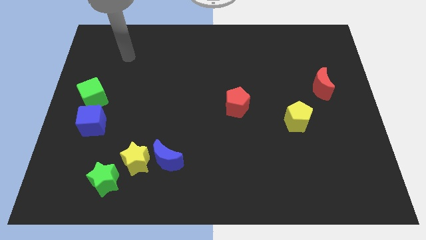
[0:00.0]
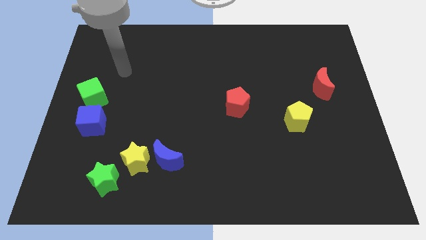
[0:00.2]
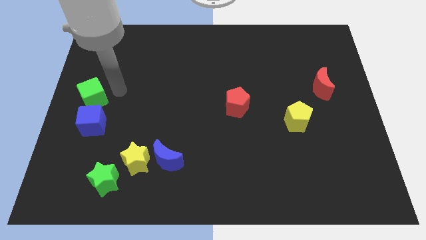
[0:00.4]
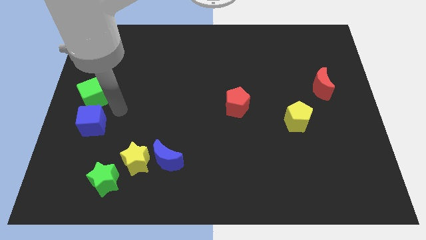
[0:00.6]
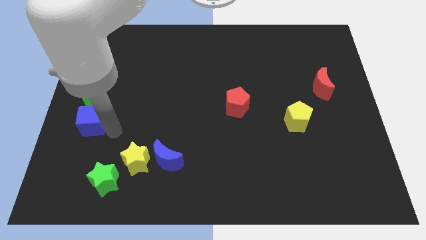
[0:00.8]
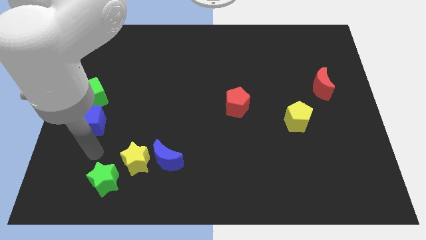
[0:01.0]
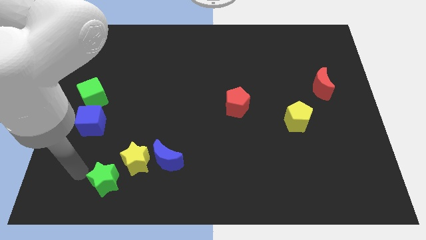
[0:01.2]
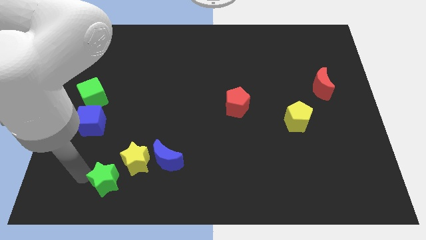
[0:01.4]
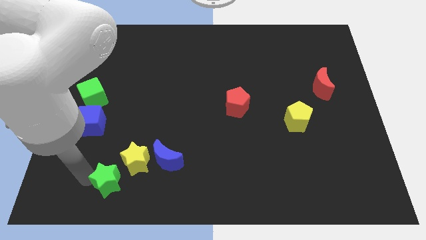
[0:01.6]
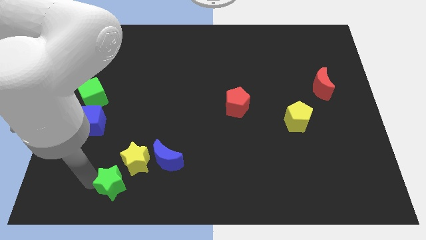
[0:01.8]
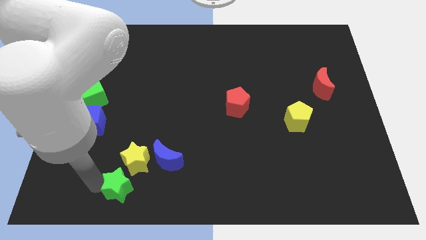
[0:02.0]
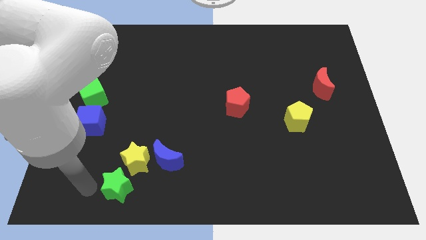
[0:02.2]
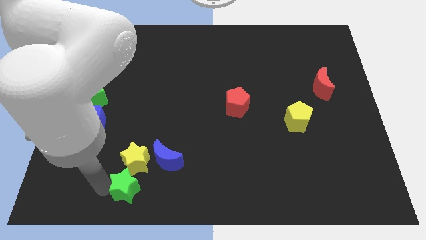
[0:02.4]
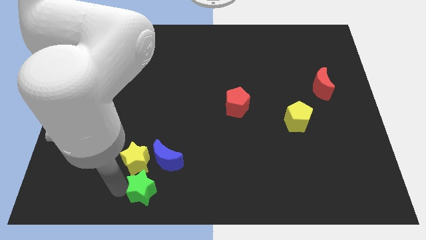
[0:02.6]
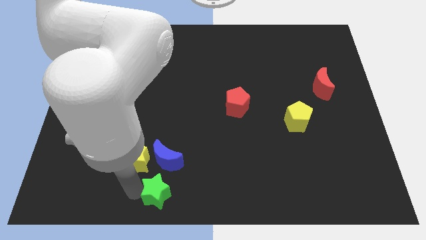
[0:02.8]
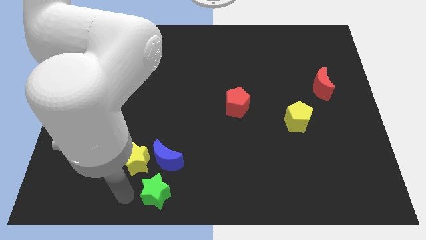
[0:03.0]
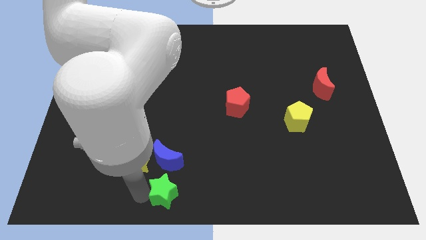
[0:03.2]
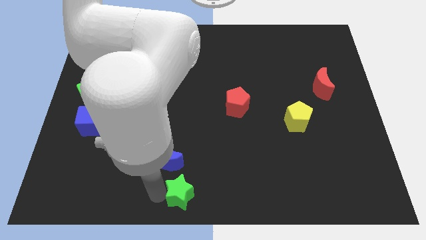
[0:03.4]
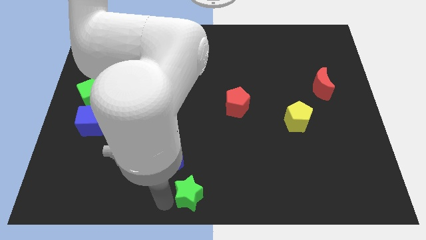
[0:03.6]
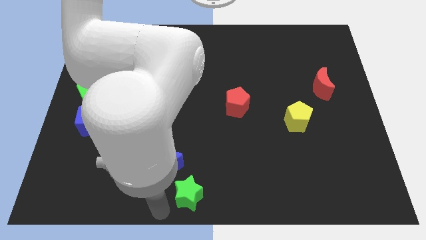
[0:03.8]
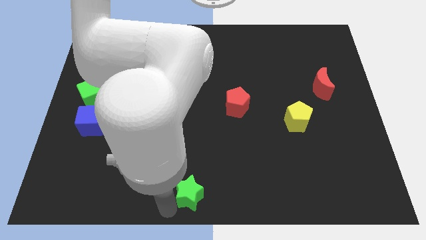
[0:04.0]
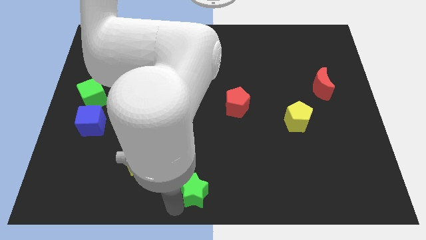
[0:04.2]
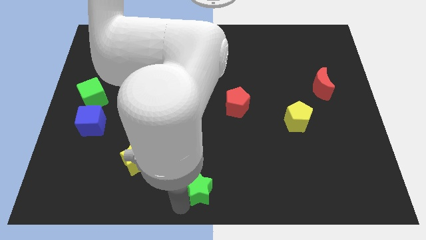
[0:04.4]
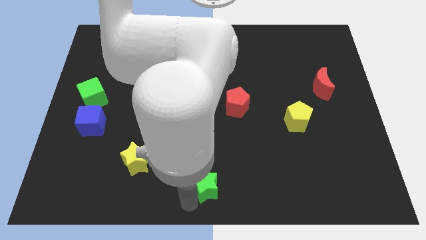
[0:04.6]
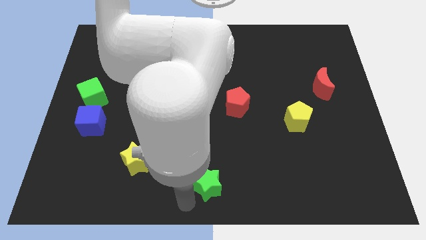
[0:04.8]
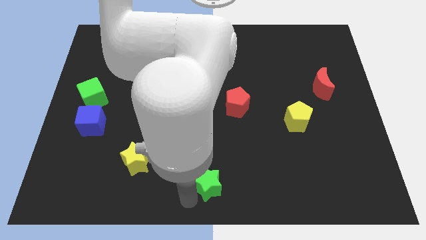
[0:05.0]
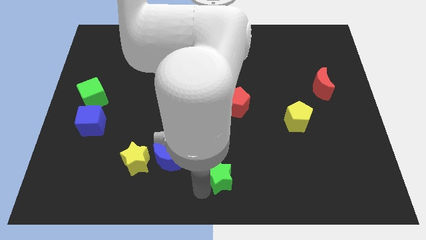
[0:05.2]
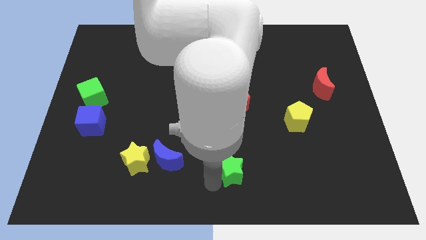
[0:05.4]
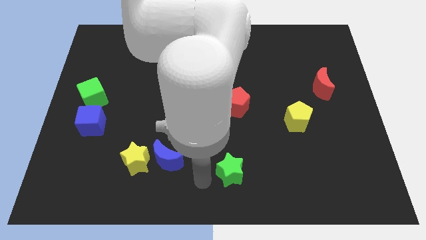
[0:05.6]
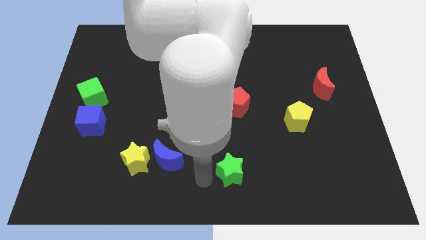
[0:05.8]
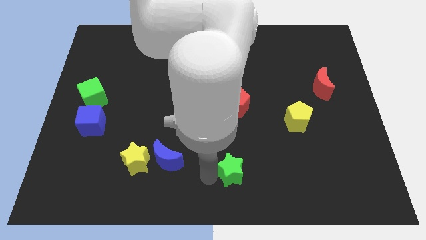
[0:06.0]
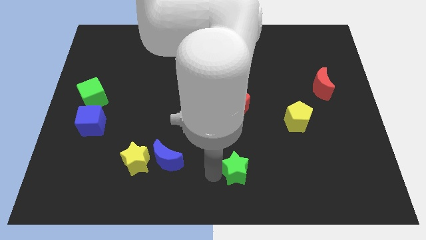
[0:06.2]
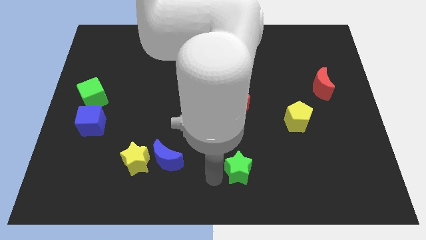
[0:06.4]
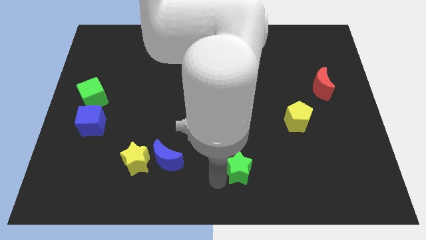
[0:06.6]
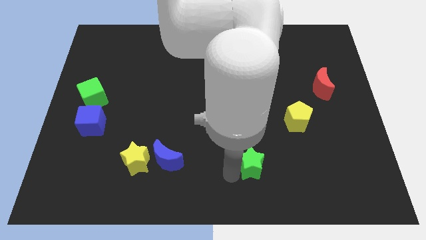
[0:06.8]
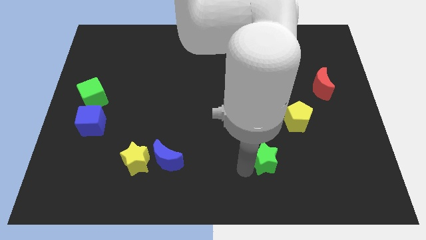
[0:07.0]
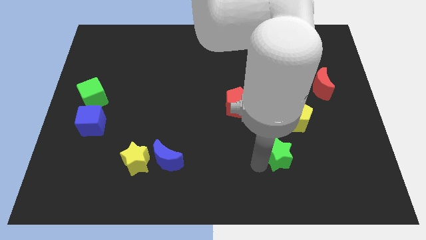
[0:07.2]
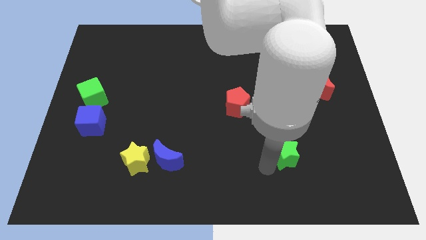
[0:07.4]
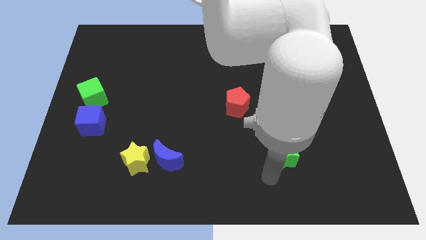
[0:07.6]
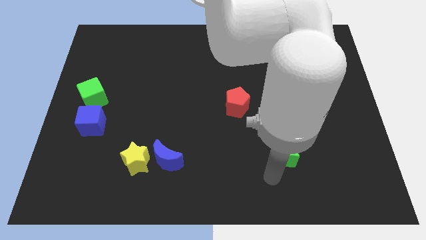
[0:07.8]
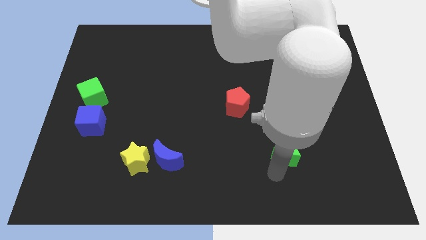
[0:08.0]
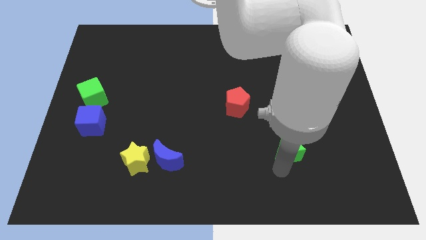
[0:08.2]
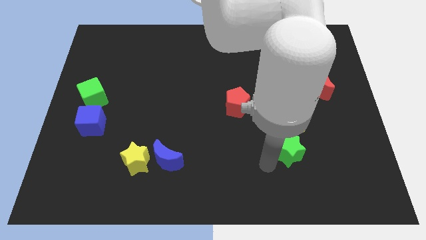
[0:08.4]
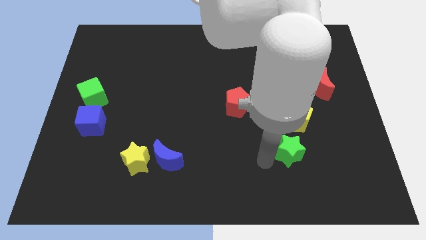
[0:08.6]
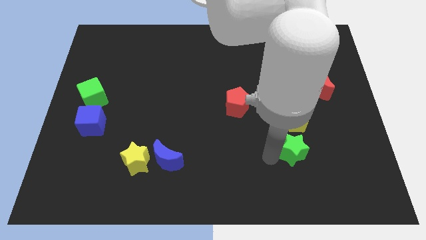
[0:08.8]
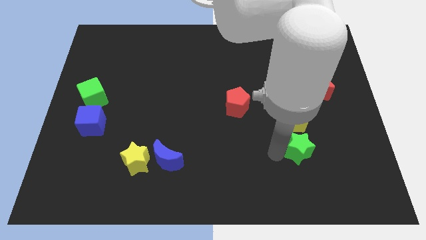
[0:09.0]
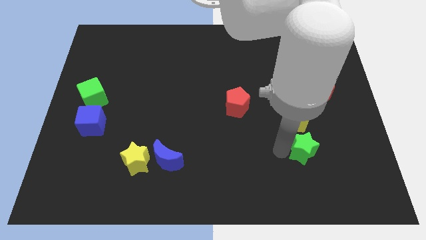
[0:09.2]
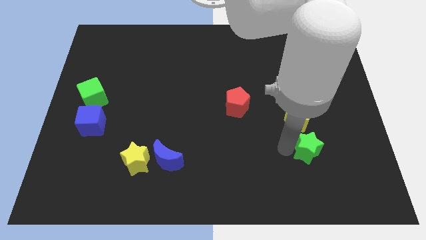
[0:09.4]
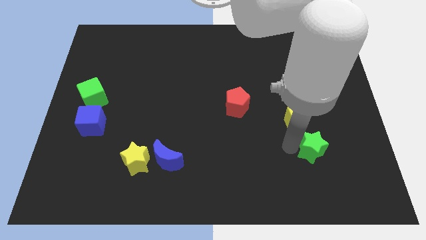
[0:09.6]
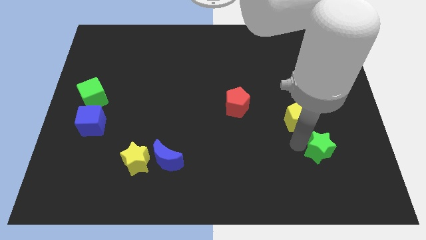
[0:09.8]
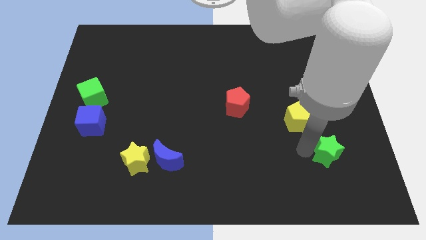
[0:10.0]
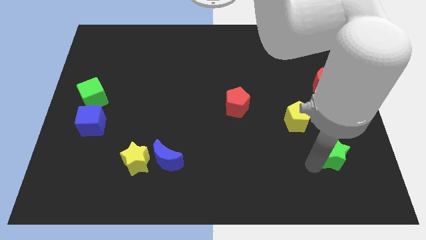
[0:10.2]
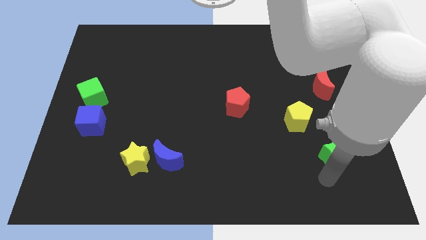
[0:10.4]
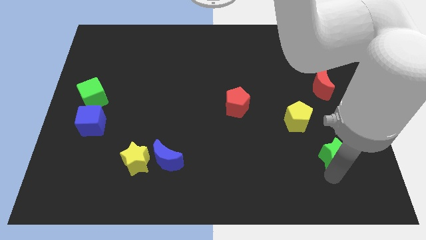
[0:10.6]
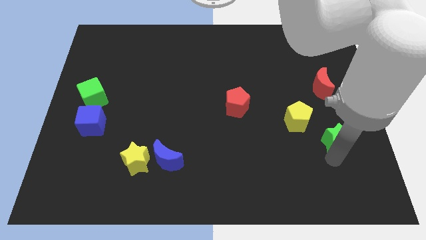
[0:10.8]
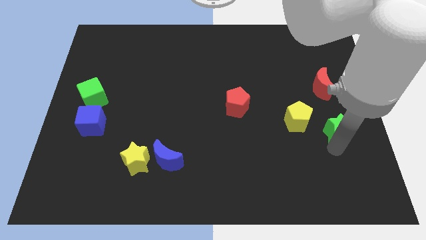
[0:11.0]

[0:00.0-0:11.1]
put the green star to the right side of the board
